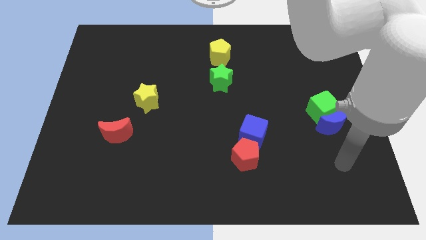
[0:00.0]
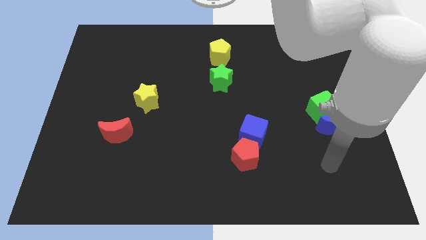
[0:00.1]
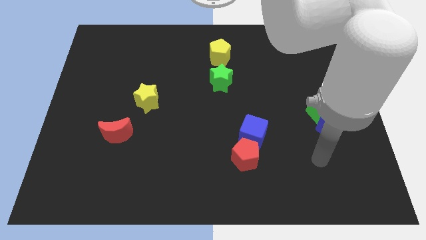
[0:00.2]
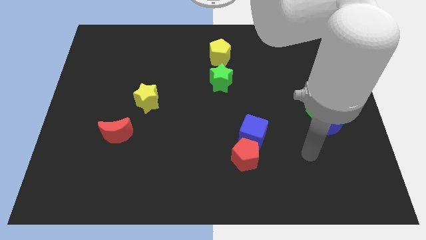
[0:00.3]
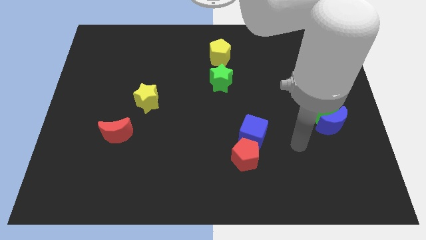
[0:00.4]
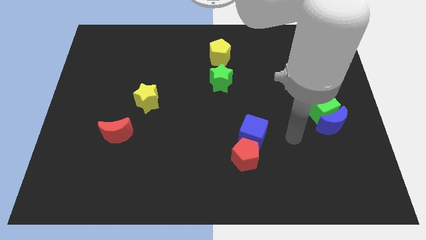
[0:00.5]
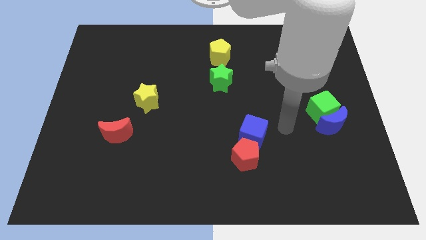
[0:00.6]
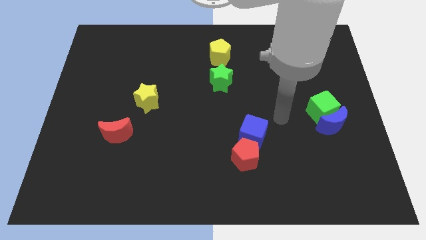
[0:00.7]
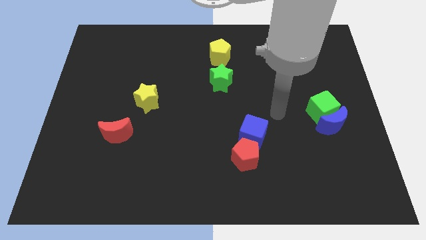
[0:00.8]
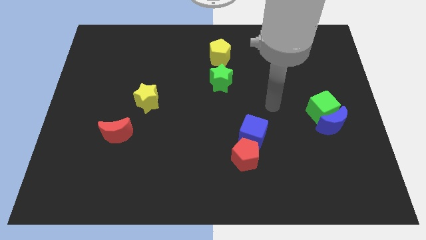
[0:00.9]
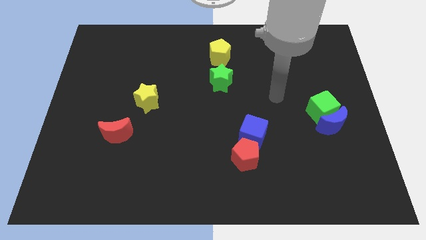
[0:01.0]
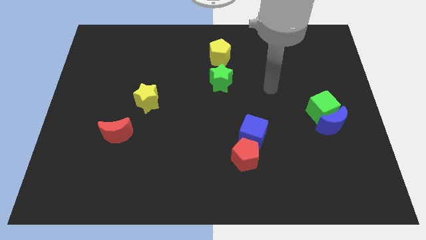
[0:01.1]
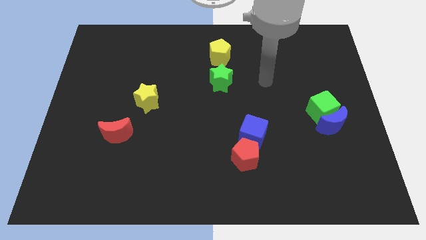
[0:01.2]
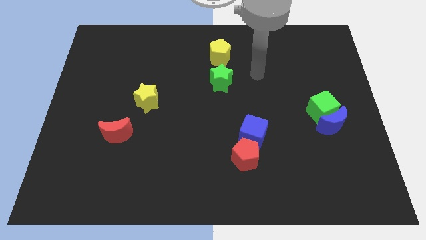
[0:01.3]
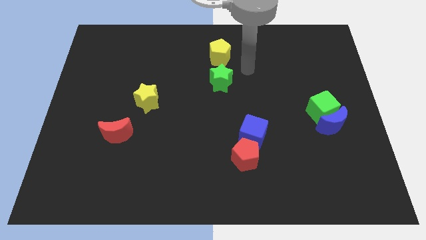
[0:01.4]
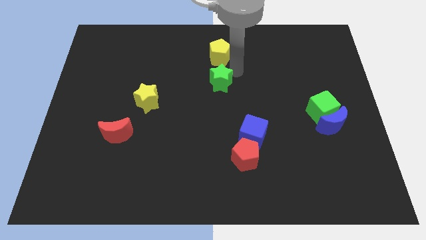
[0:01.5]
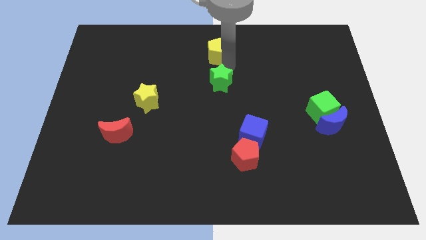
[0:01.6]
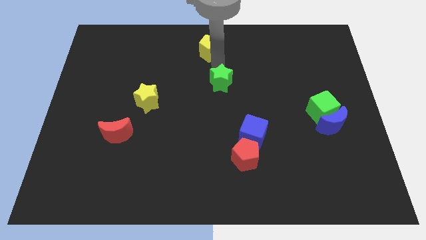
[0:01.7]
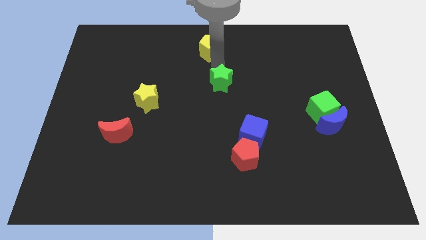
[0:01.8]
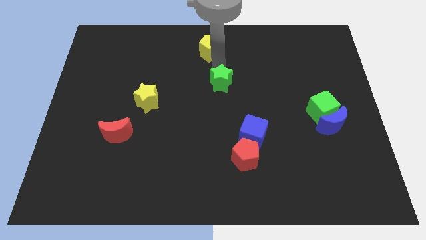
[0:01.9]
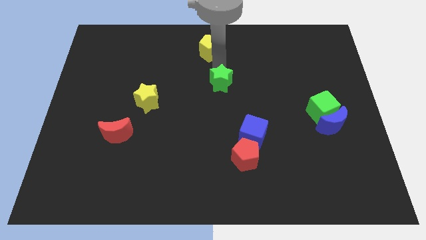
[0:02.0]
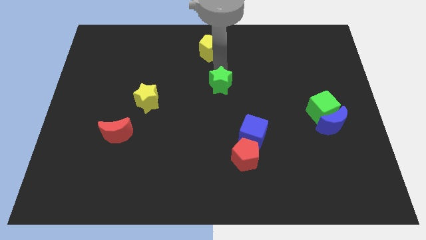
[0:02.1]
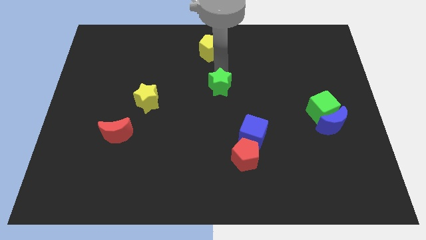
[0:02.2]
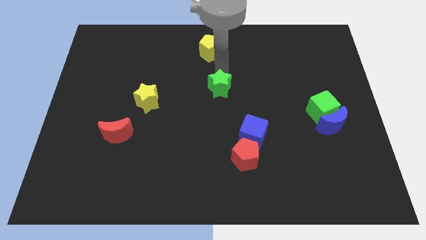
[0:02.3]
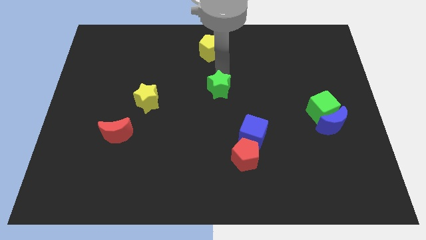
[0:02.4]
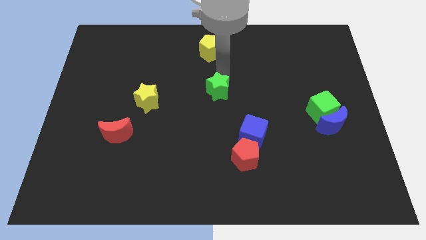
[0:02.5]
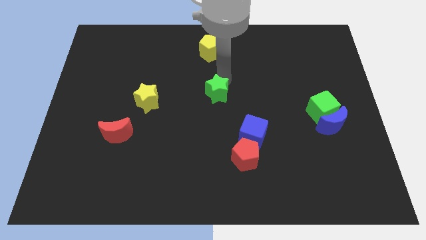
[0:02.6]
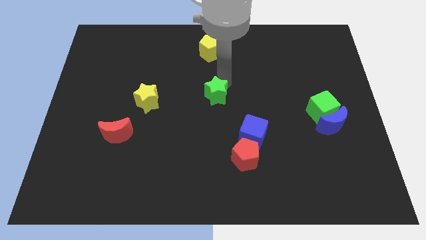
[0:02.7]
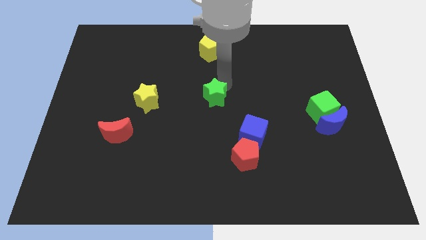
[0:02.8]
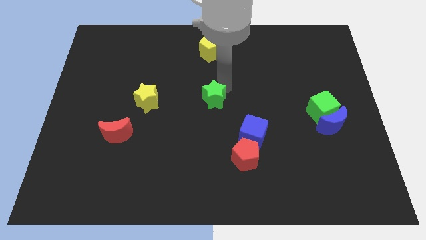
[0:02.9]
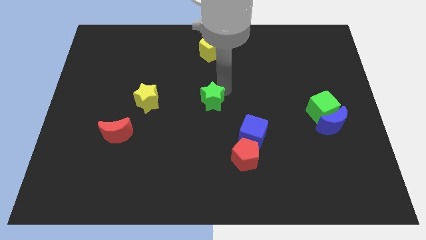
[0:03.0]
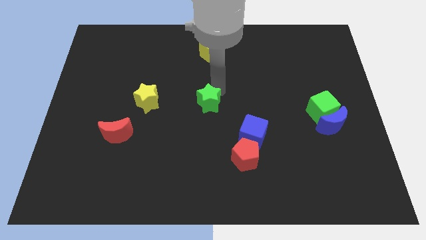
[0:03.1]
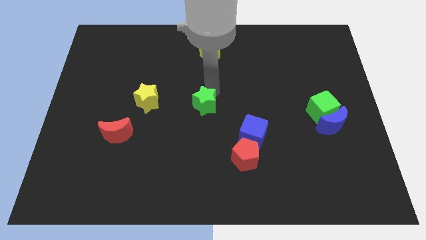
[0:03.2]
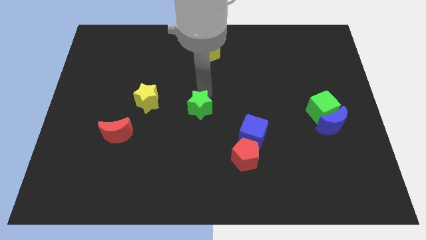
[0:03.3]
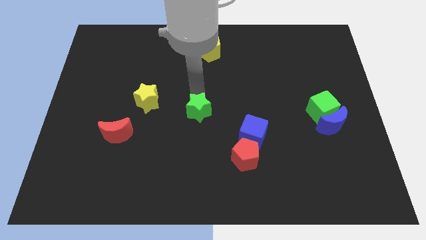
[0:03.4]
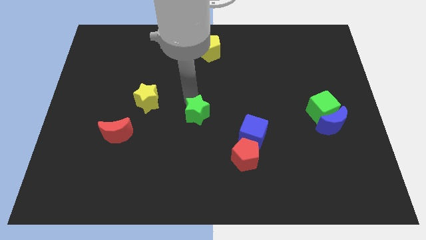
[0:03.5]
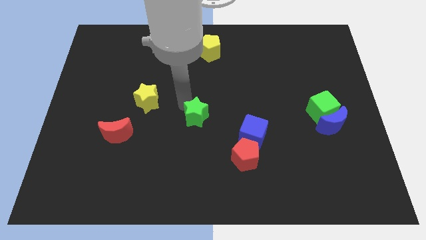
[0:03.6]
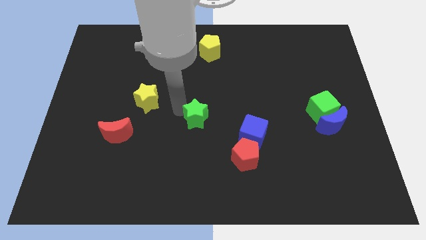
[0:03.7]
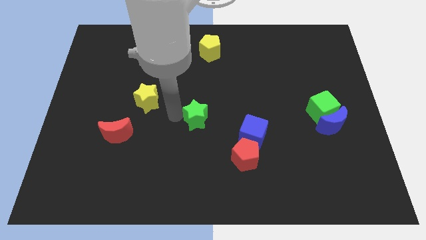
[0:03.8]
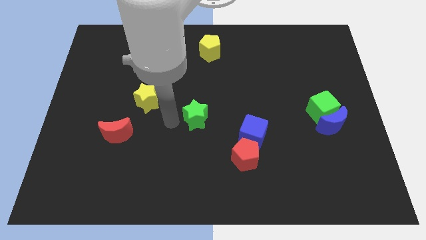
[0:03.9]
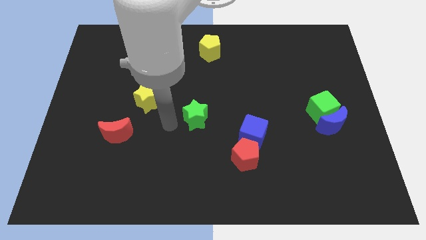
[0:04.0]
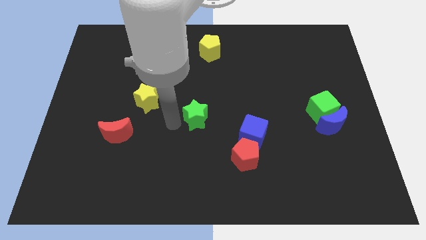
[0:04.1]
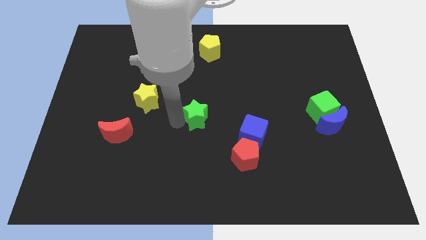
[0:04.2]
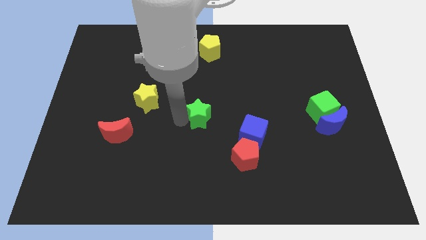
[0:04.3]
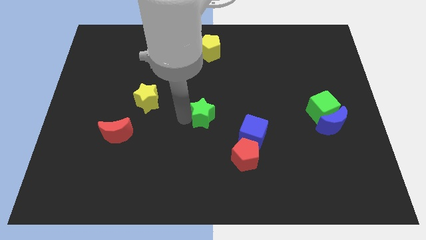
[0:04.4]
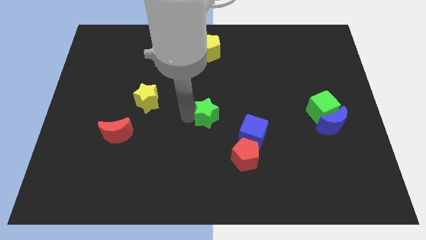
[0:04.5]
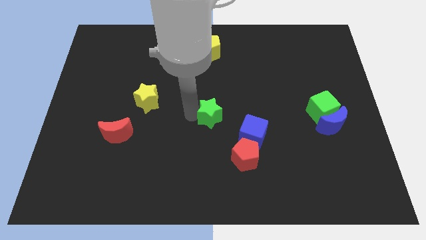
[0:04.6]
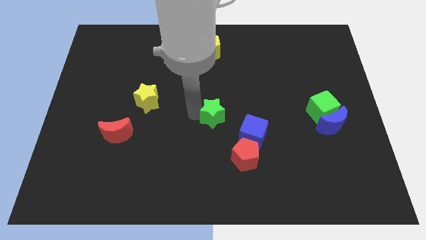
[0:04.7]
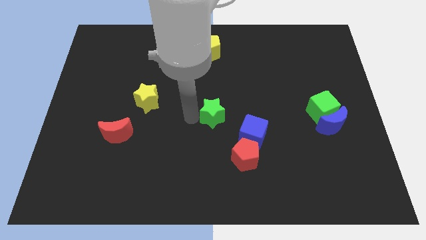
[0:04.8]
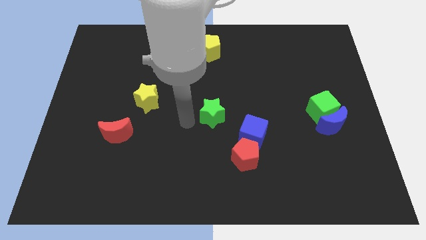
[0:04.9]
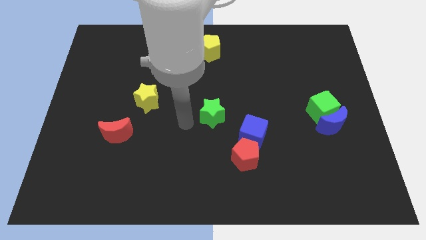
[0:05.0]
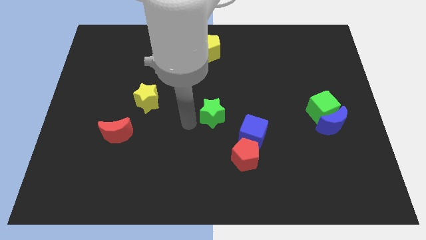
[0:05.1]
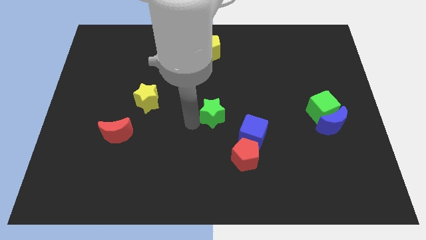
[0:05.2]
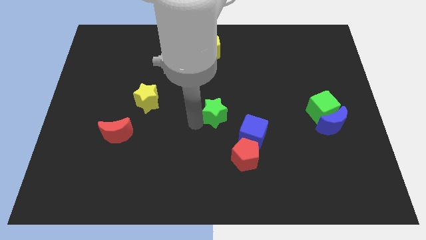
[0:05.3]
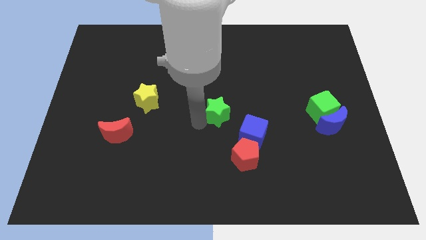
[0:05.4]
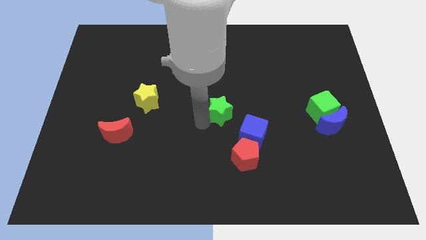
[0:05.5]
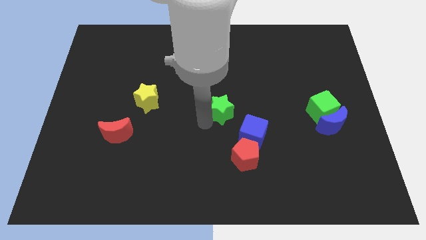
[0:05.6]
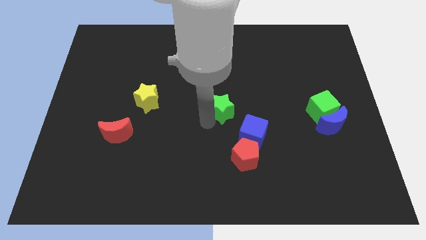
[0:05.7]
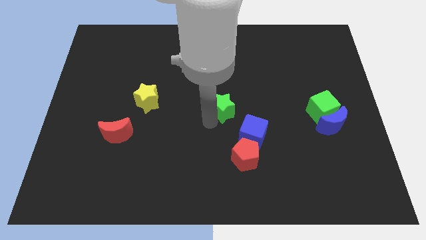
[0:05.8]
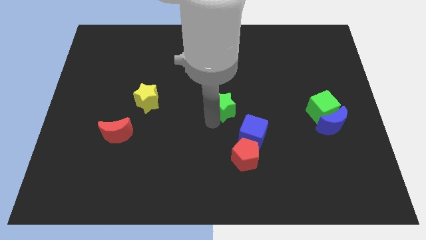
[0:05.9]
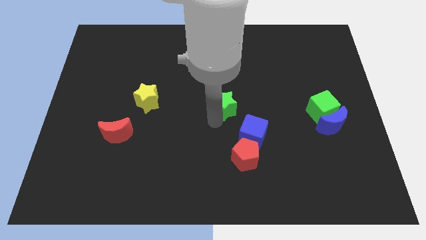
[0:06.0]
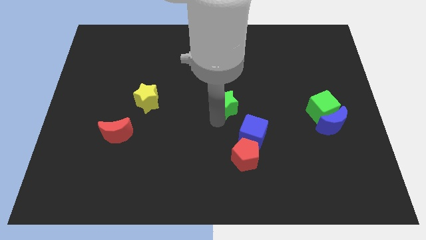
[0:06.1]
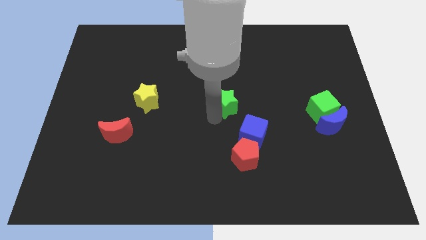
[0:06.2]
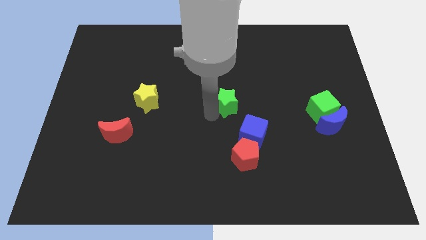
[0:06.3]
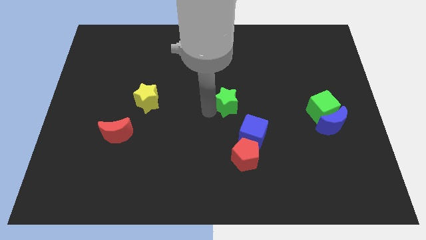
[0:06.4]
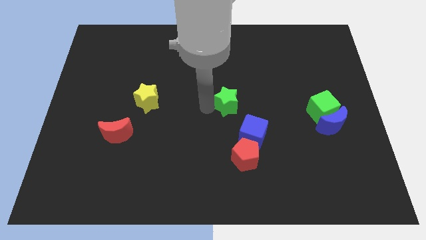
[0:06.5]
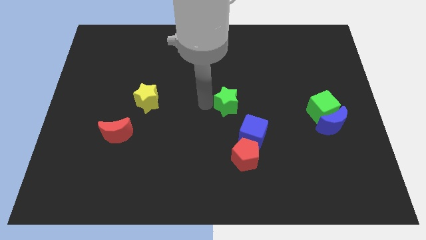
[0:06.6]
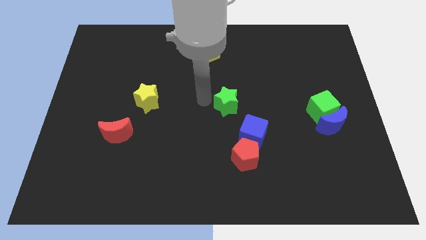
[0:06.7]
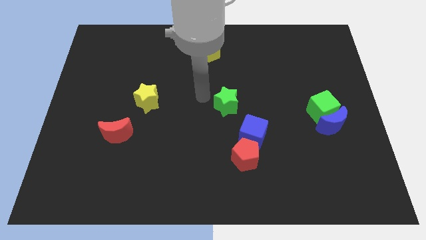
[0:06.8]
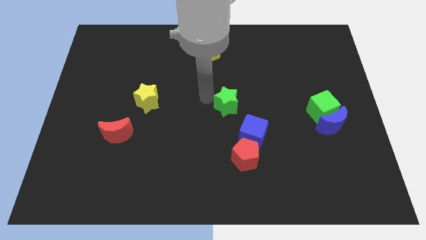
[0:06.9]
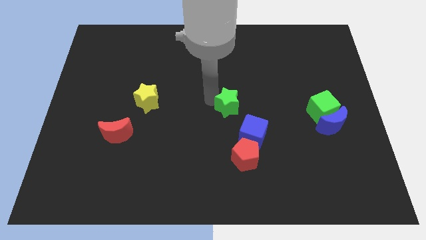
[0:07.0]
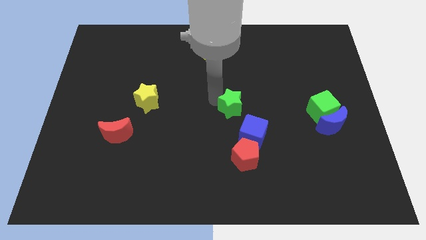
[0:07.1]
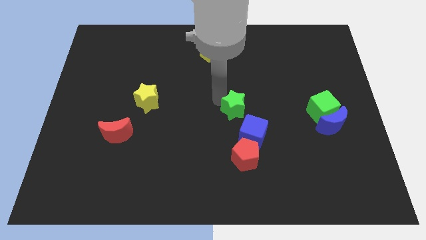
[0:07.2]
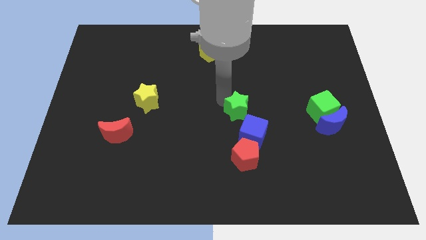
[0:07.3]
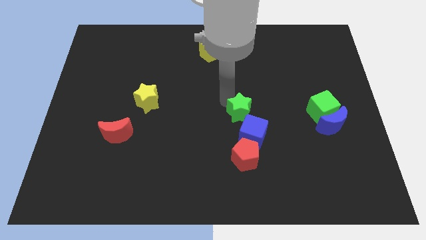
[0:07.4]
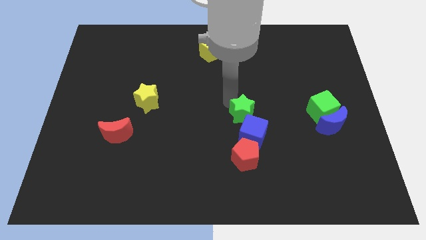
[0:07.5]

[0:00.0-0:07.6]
slide the green star towards the blue cube
